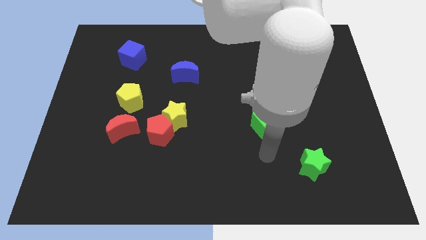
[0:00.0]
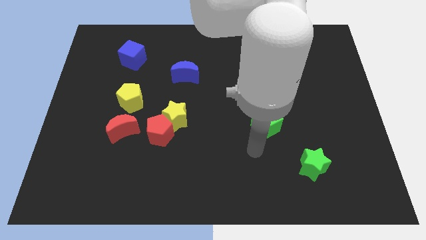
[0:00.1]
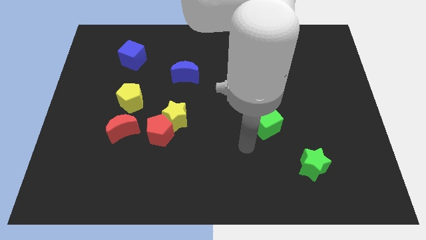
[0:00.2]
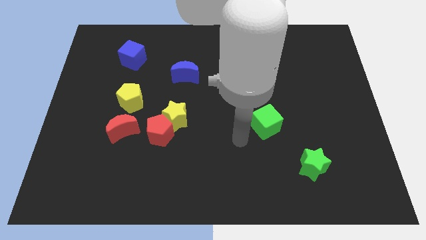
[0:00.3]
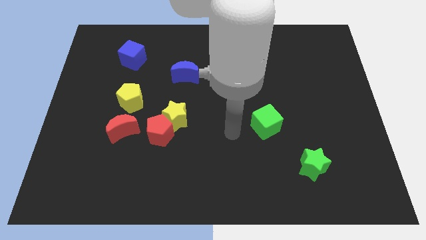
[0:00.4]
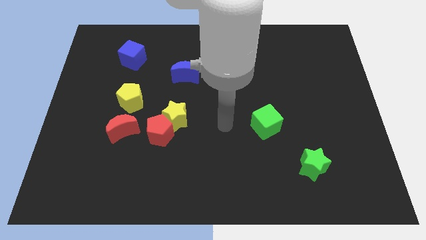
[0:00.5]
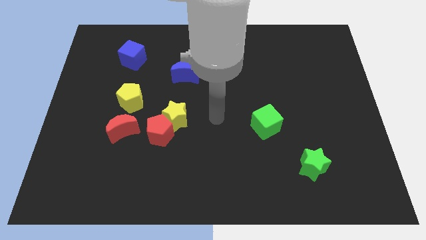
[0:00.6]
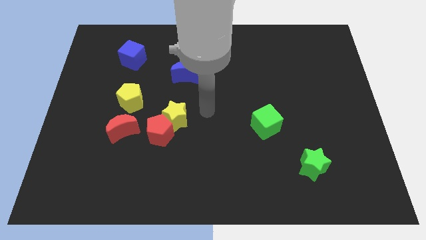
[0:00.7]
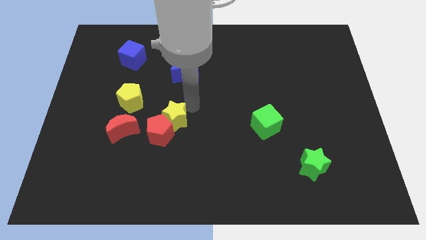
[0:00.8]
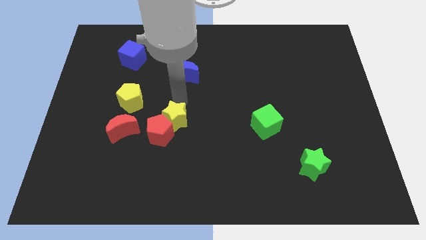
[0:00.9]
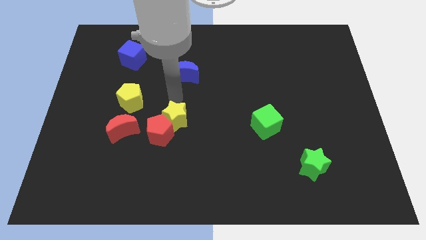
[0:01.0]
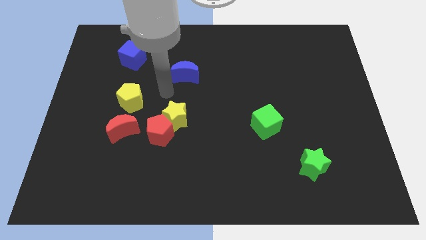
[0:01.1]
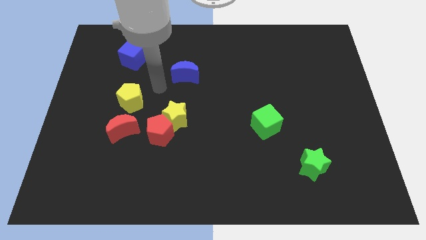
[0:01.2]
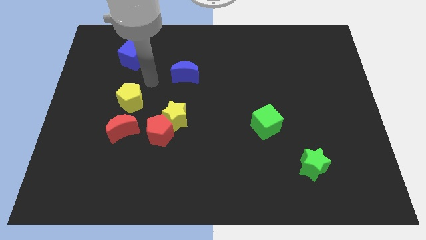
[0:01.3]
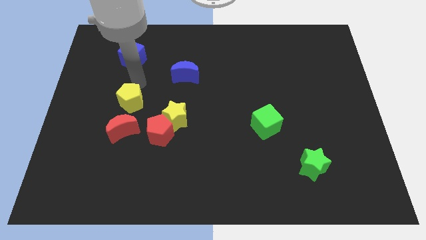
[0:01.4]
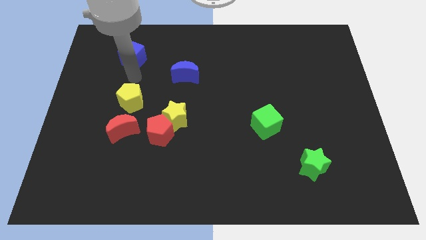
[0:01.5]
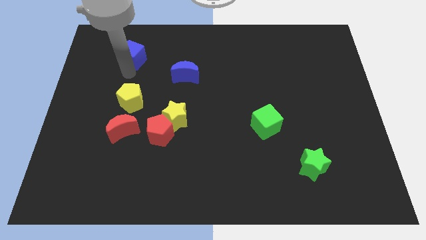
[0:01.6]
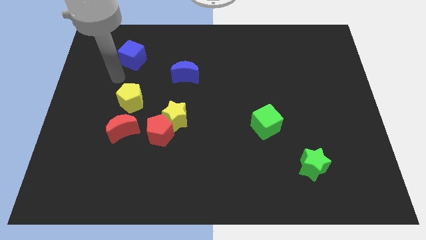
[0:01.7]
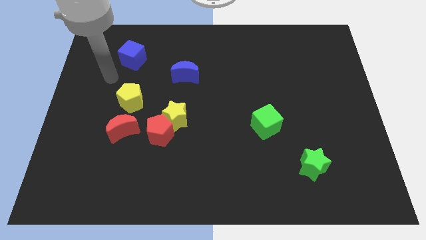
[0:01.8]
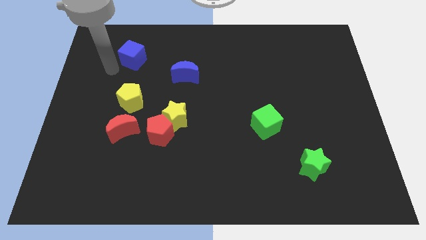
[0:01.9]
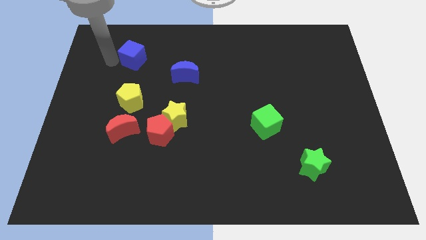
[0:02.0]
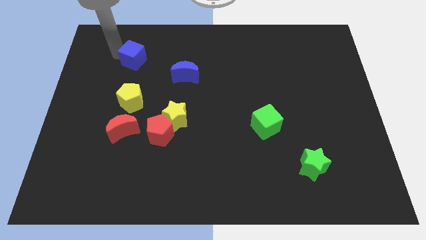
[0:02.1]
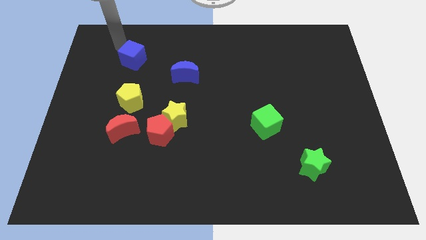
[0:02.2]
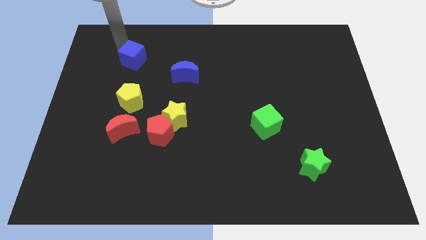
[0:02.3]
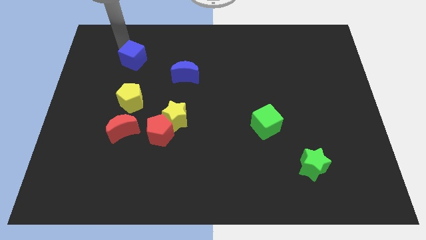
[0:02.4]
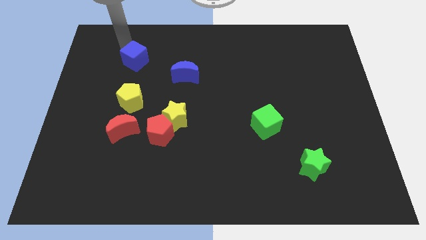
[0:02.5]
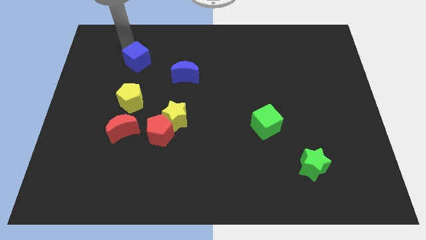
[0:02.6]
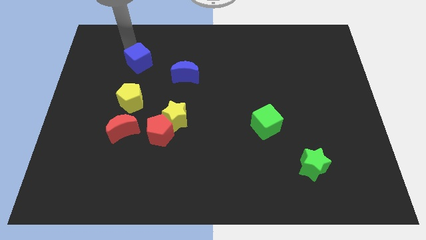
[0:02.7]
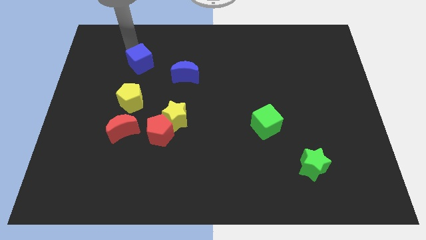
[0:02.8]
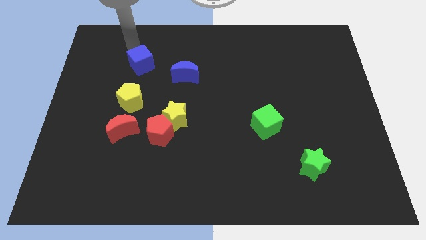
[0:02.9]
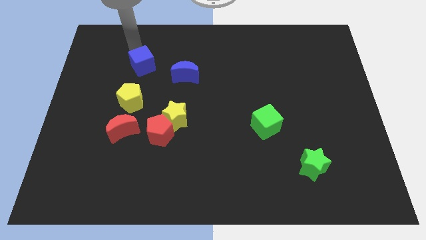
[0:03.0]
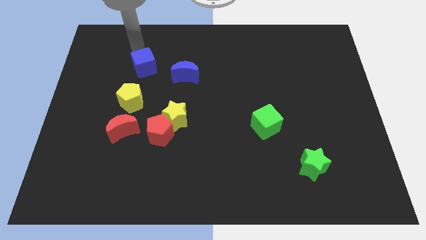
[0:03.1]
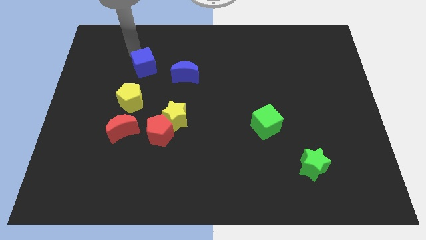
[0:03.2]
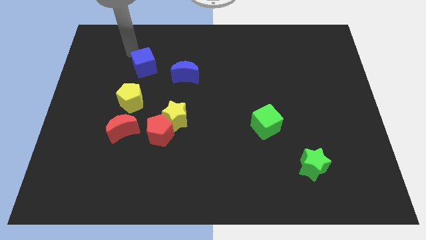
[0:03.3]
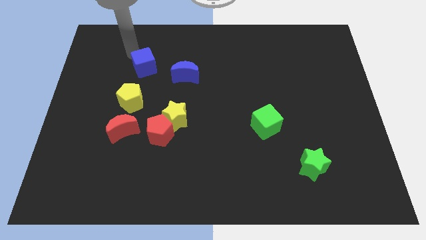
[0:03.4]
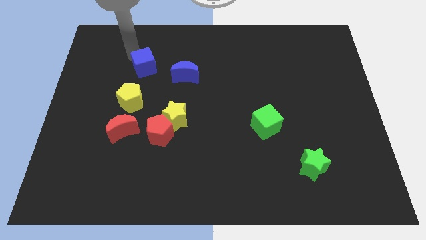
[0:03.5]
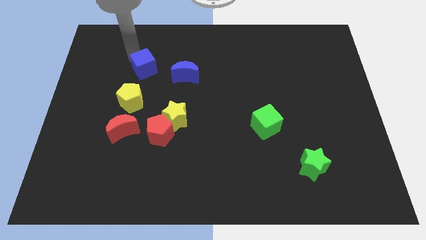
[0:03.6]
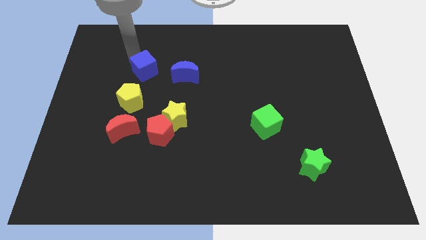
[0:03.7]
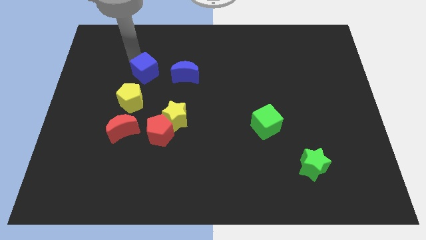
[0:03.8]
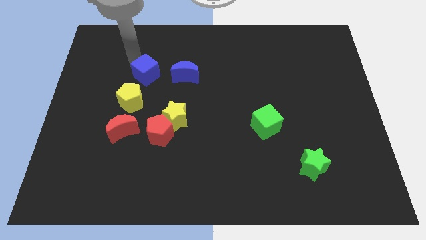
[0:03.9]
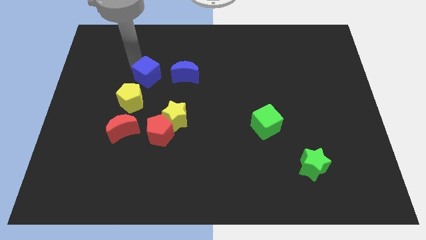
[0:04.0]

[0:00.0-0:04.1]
slightly push the blue cube down and then right

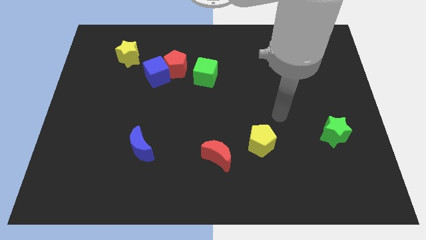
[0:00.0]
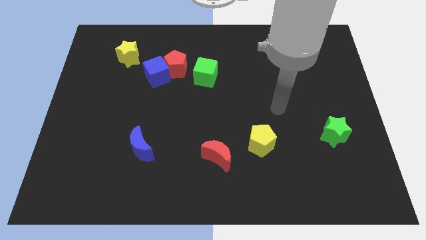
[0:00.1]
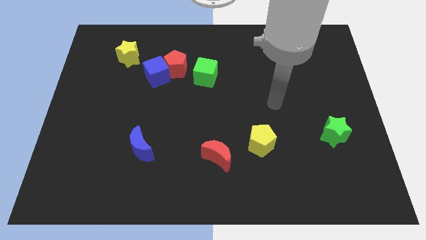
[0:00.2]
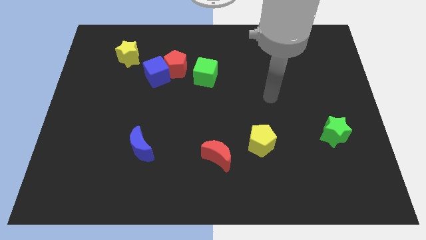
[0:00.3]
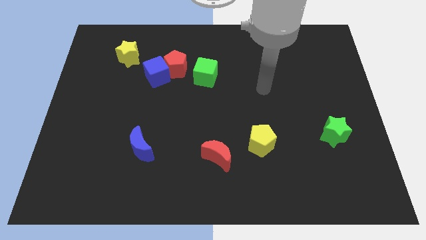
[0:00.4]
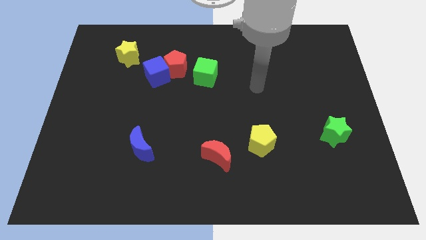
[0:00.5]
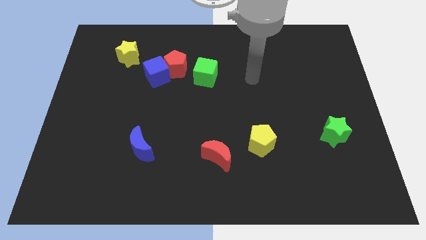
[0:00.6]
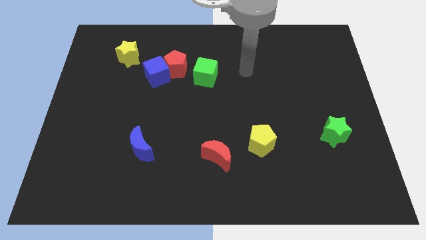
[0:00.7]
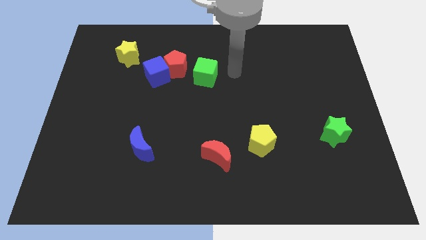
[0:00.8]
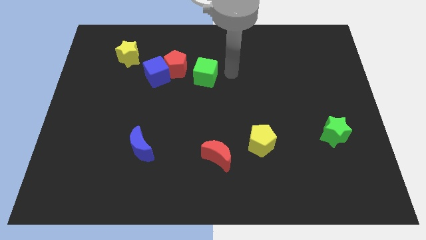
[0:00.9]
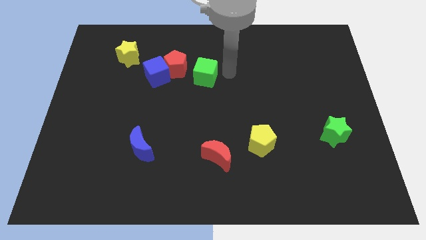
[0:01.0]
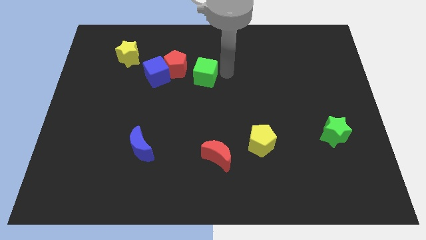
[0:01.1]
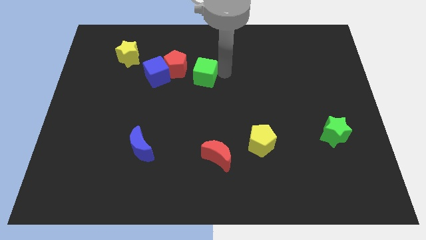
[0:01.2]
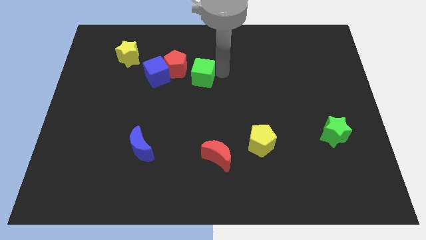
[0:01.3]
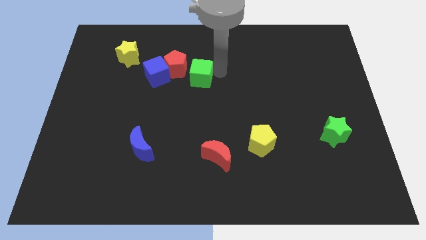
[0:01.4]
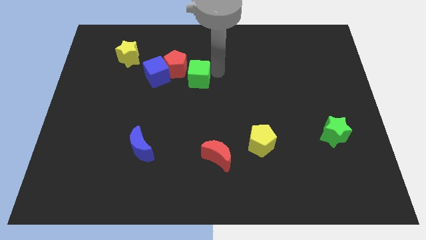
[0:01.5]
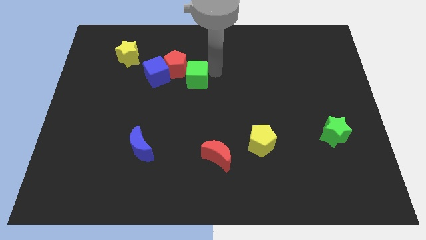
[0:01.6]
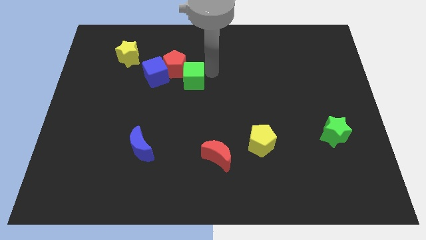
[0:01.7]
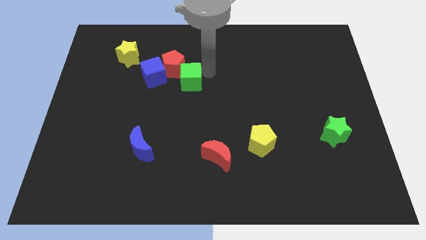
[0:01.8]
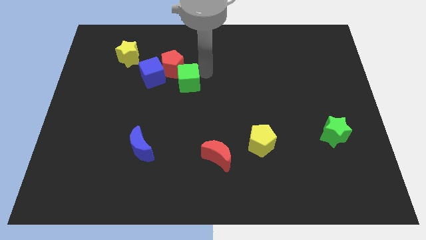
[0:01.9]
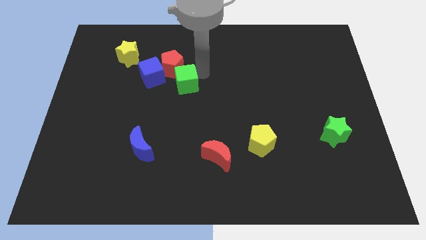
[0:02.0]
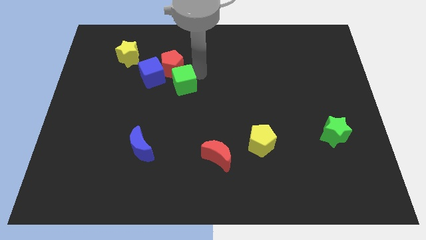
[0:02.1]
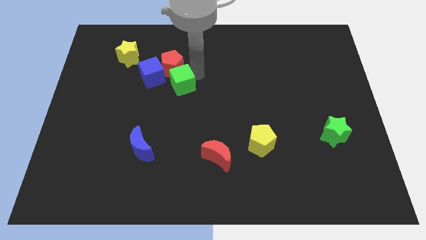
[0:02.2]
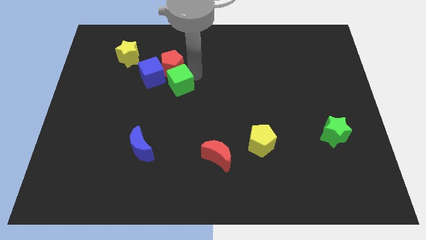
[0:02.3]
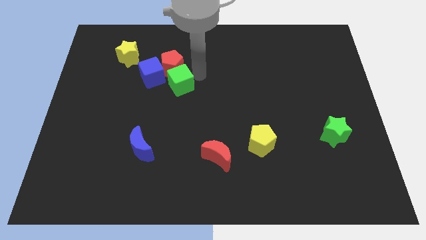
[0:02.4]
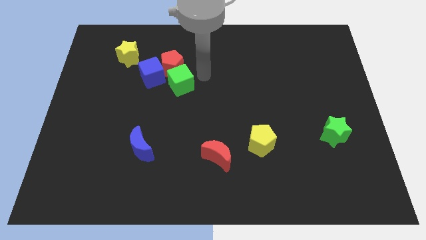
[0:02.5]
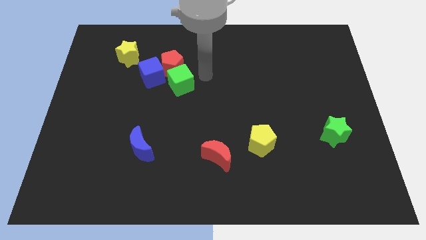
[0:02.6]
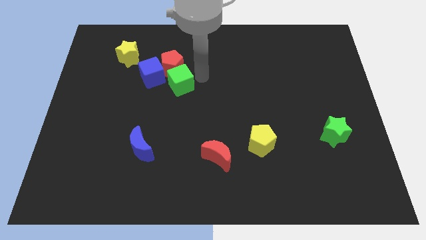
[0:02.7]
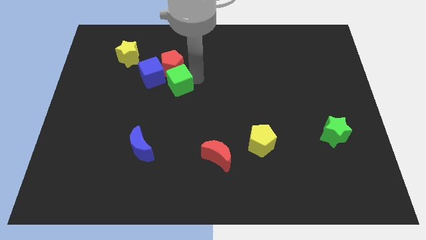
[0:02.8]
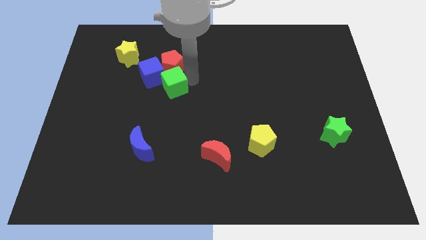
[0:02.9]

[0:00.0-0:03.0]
slide the green cube a little bit left

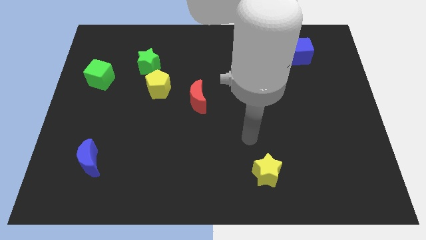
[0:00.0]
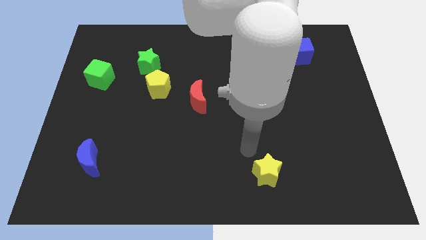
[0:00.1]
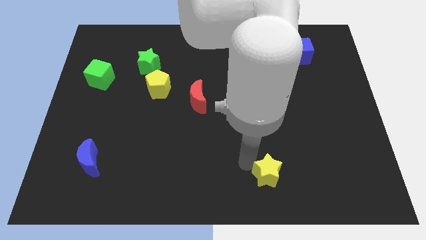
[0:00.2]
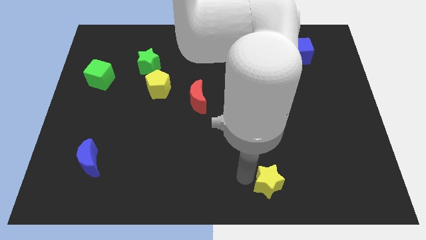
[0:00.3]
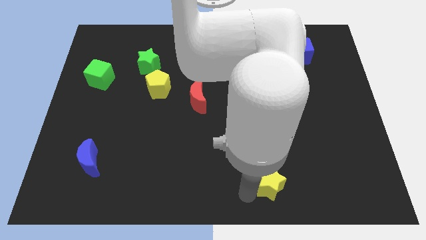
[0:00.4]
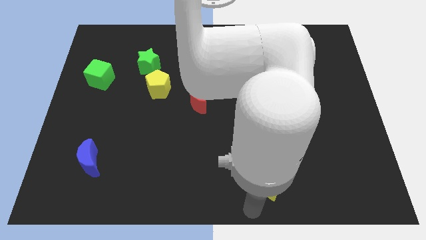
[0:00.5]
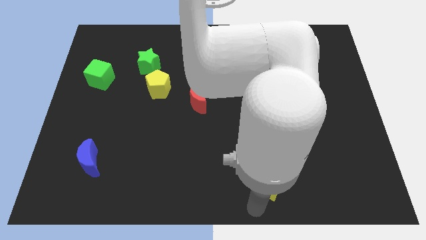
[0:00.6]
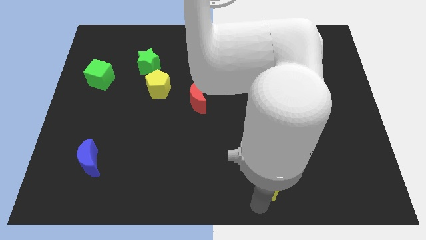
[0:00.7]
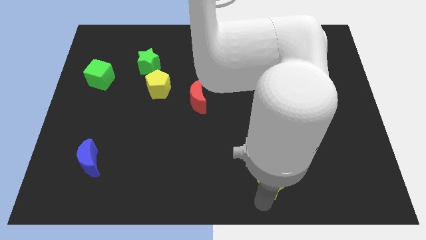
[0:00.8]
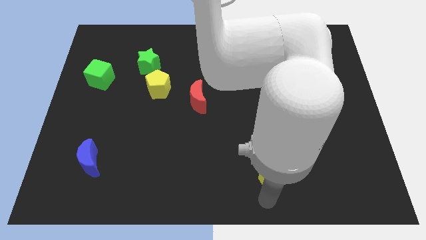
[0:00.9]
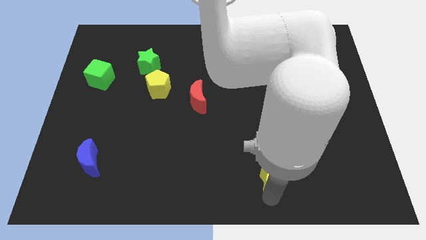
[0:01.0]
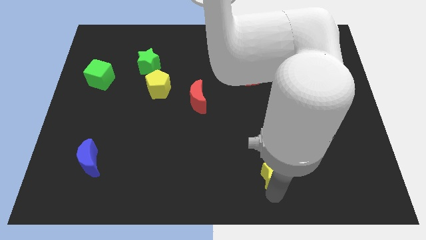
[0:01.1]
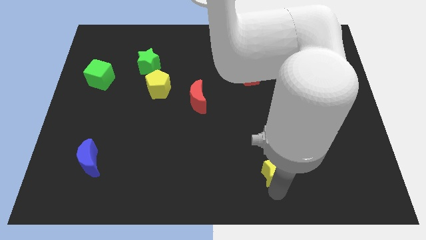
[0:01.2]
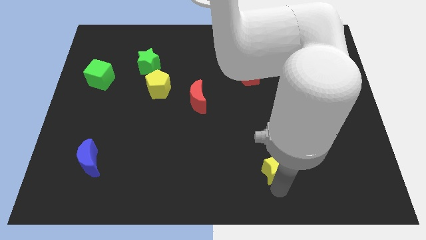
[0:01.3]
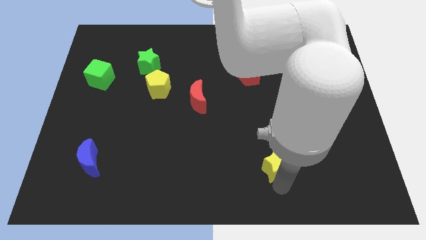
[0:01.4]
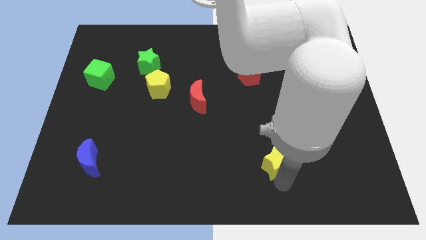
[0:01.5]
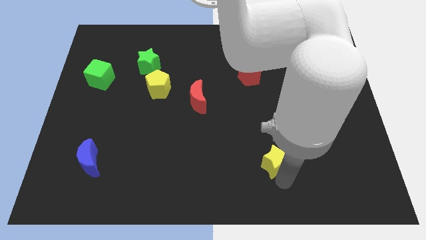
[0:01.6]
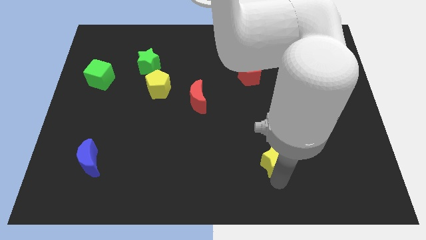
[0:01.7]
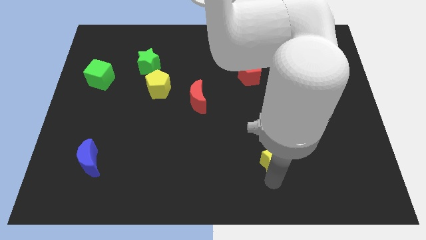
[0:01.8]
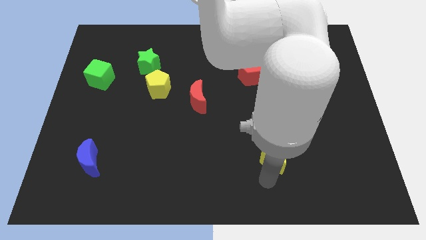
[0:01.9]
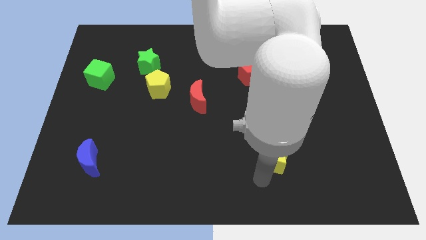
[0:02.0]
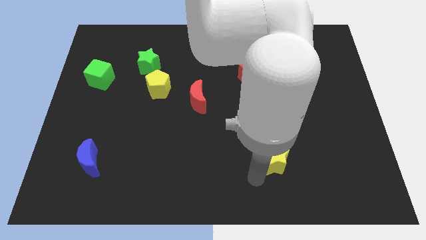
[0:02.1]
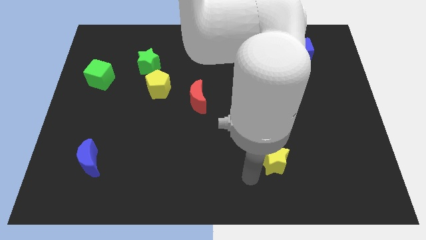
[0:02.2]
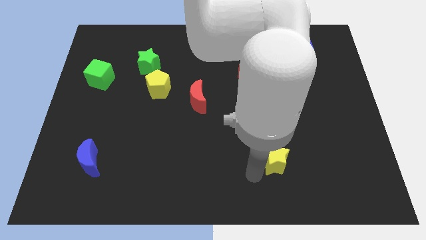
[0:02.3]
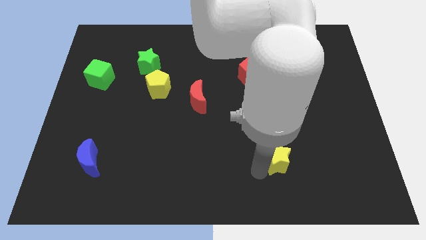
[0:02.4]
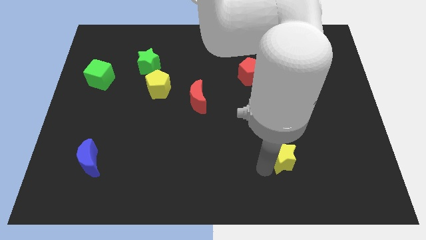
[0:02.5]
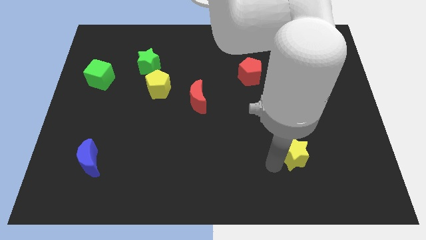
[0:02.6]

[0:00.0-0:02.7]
slide the yellow star diagonally upwards and right a little bit
